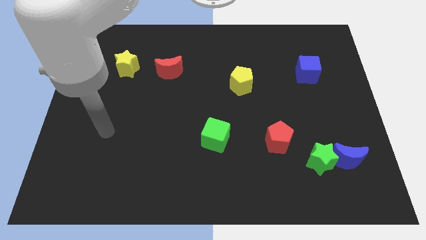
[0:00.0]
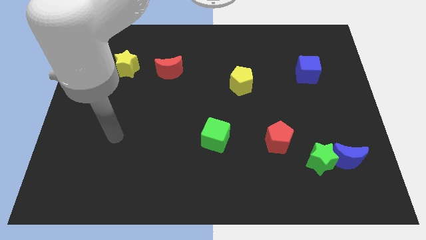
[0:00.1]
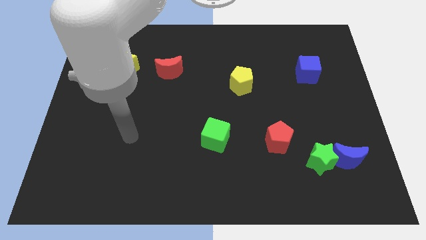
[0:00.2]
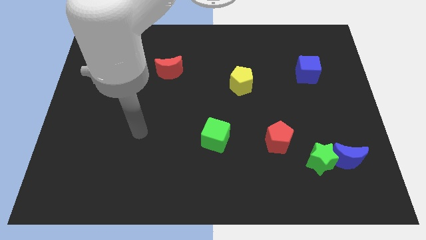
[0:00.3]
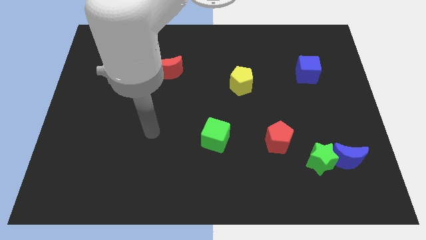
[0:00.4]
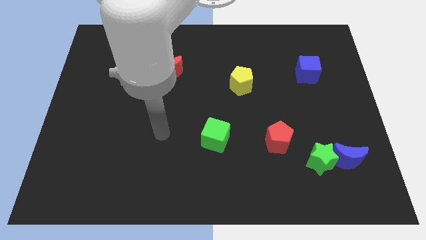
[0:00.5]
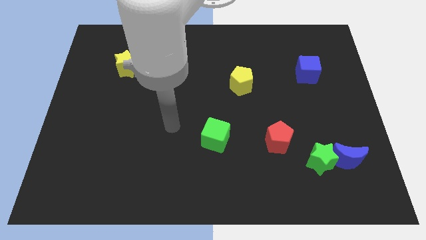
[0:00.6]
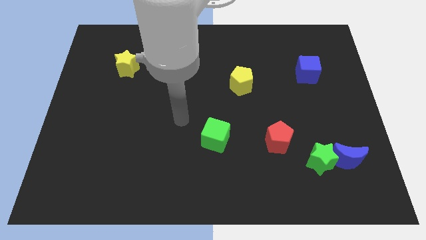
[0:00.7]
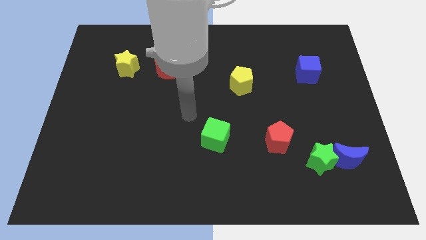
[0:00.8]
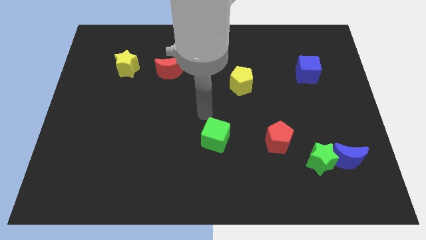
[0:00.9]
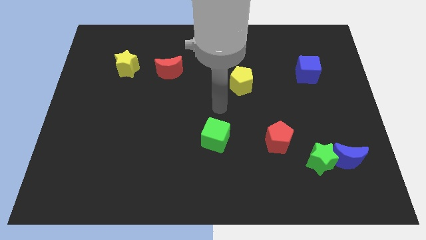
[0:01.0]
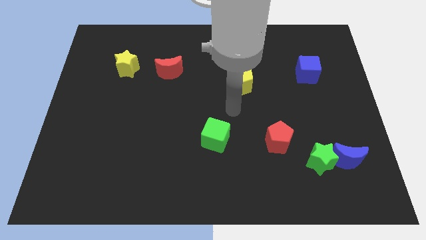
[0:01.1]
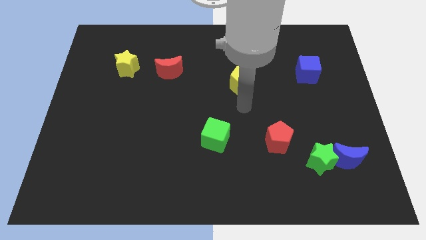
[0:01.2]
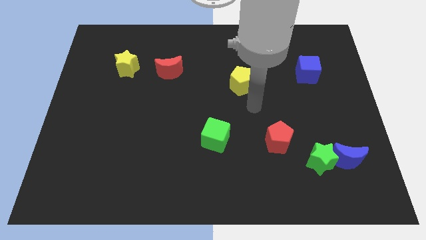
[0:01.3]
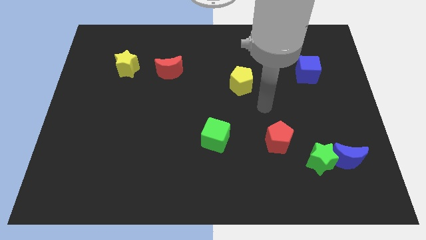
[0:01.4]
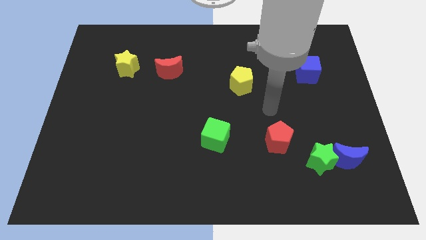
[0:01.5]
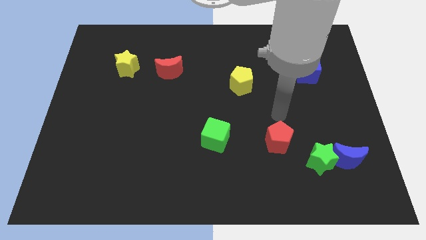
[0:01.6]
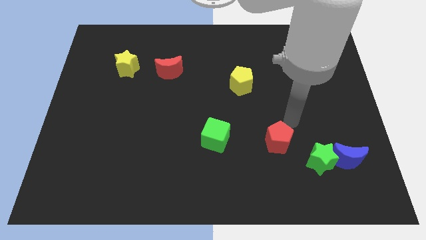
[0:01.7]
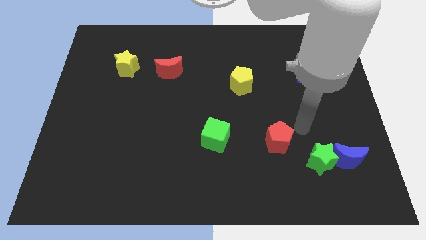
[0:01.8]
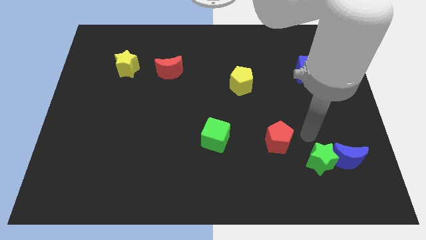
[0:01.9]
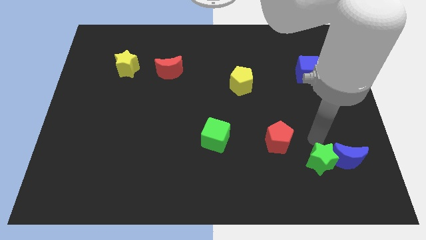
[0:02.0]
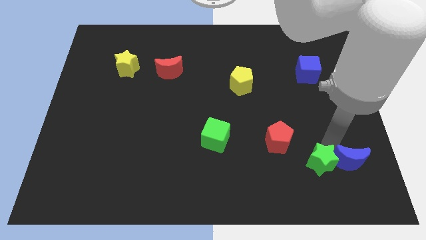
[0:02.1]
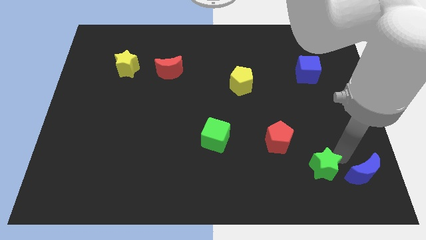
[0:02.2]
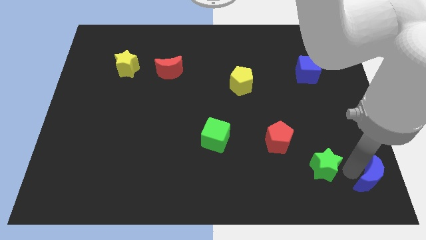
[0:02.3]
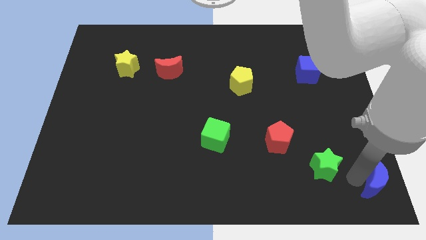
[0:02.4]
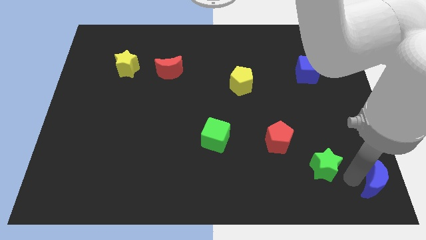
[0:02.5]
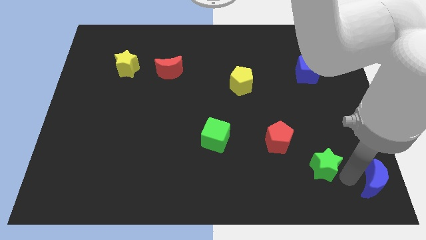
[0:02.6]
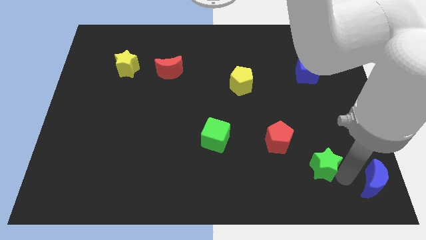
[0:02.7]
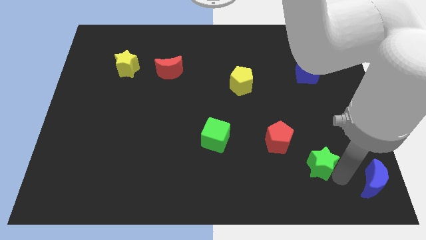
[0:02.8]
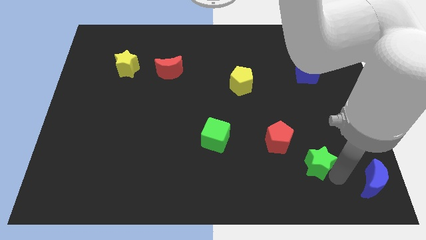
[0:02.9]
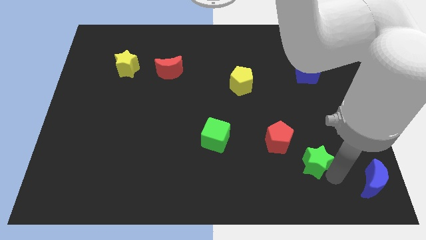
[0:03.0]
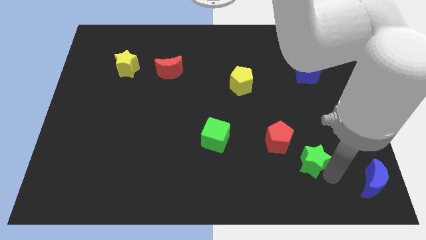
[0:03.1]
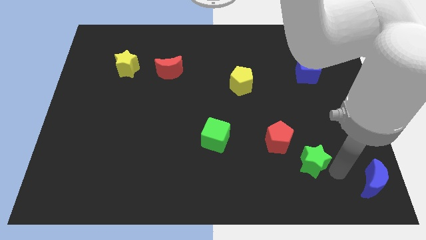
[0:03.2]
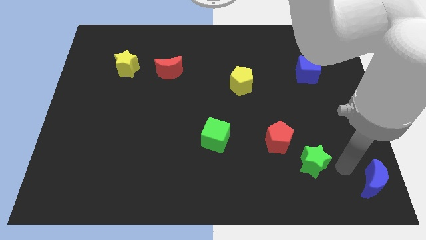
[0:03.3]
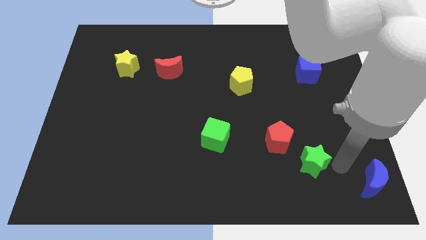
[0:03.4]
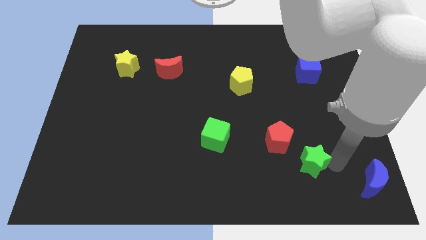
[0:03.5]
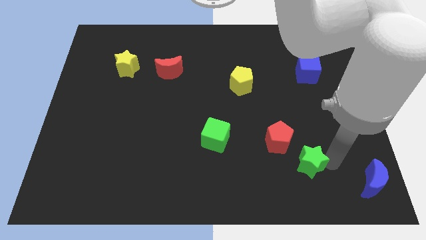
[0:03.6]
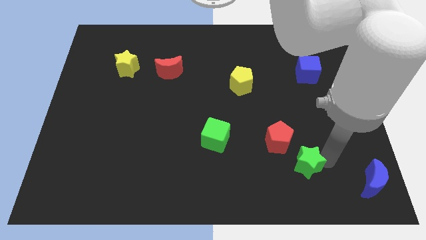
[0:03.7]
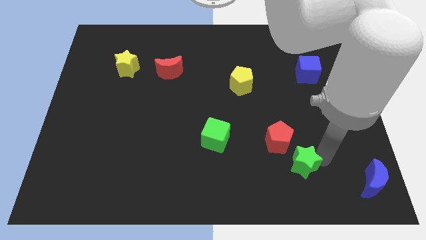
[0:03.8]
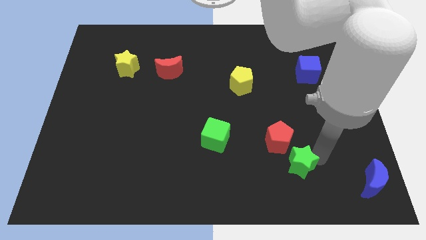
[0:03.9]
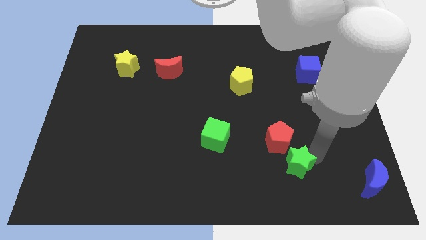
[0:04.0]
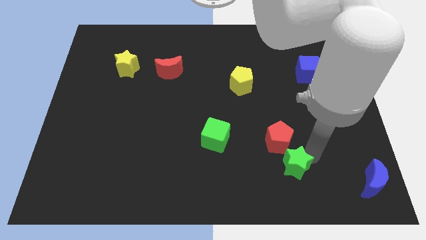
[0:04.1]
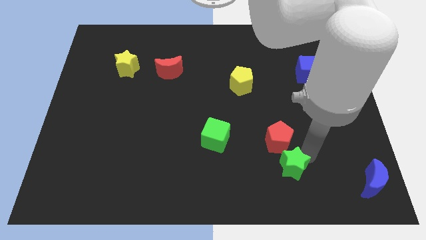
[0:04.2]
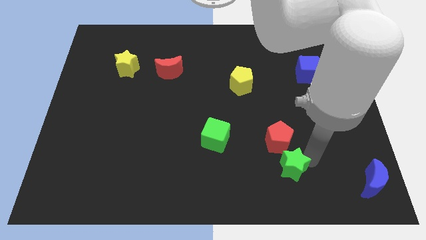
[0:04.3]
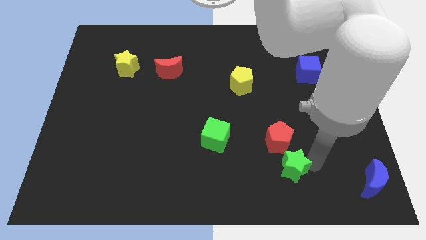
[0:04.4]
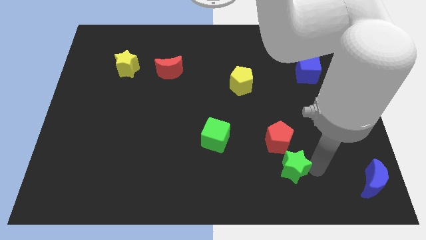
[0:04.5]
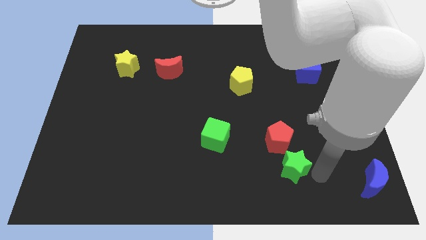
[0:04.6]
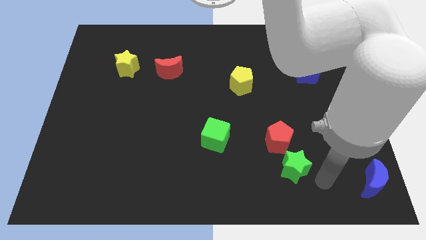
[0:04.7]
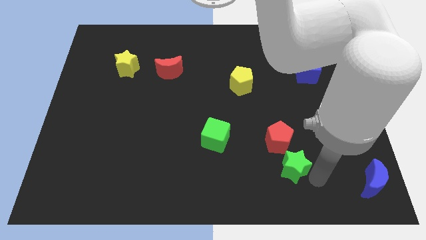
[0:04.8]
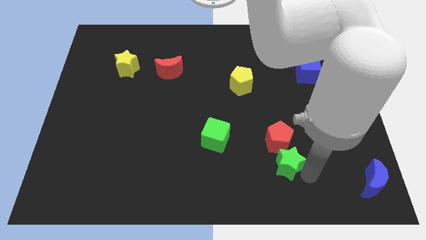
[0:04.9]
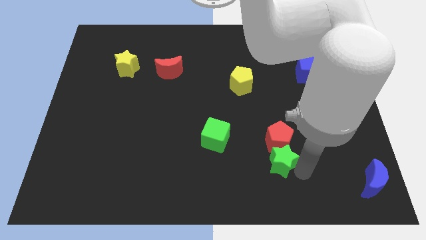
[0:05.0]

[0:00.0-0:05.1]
push the green star to the bottom left of the red pentagon

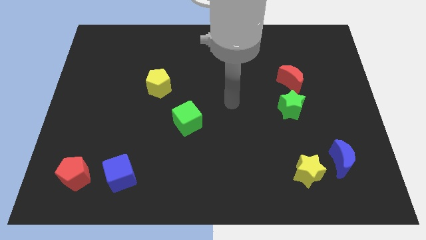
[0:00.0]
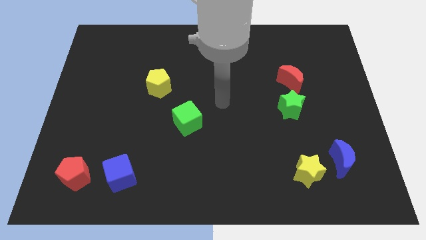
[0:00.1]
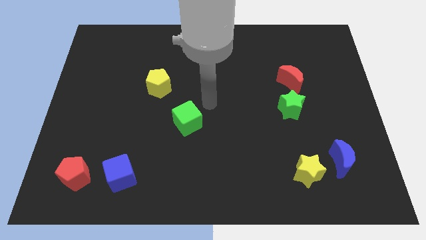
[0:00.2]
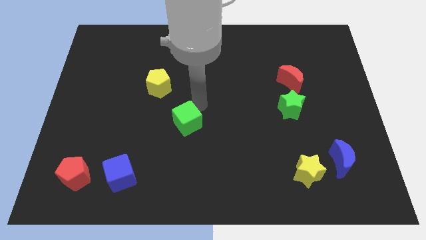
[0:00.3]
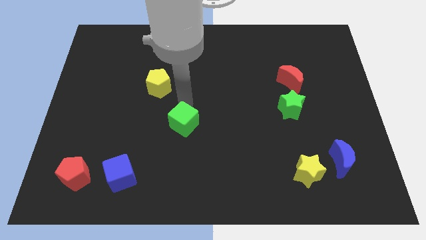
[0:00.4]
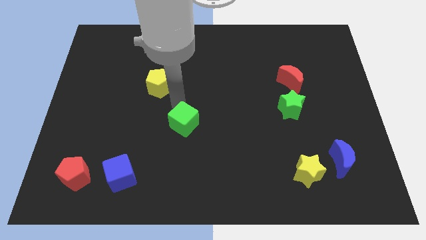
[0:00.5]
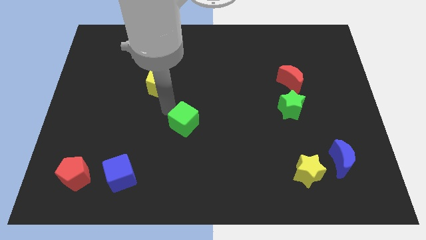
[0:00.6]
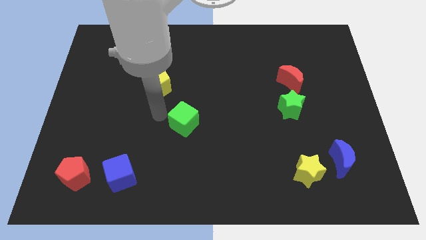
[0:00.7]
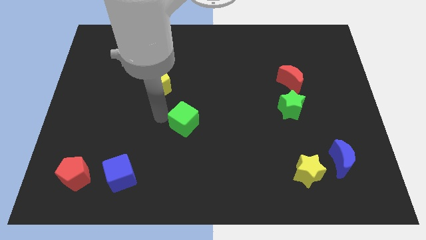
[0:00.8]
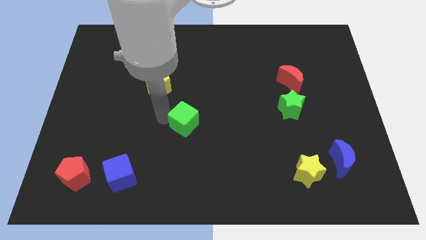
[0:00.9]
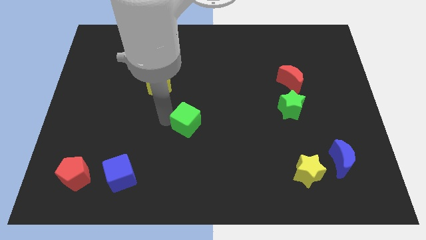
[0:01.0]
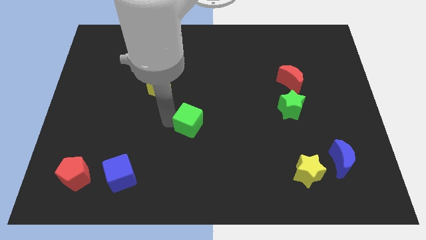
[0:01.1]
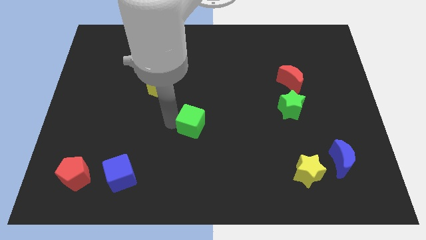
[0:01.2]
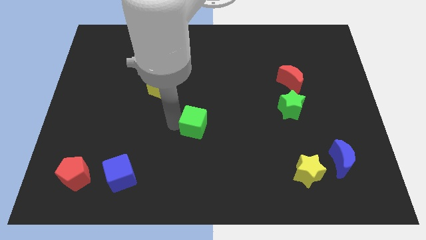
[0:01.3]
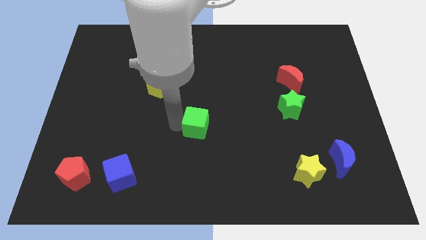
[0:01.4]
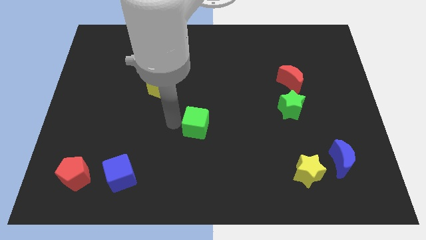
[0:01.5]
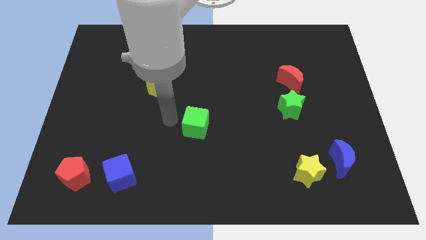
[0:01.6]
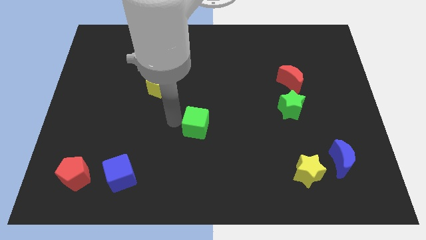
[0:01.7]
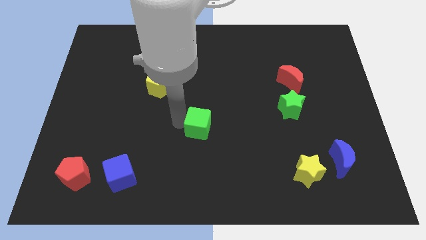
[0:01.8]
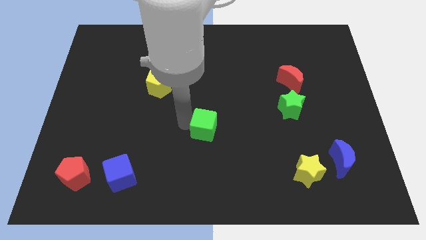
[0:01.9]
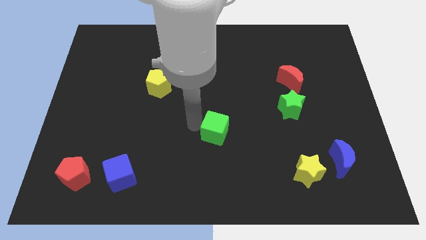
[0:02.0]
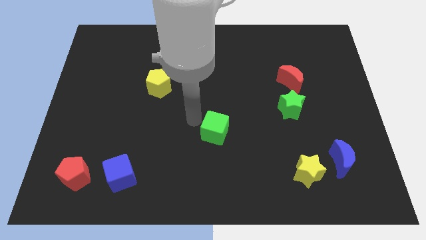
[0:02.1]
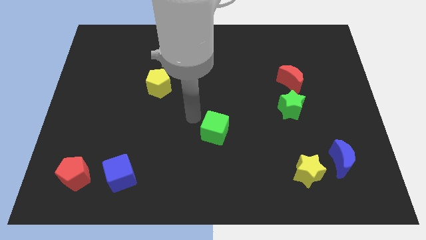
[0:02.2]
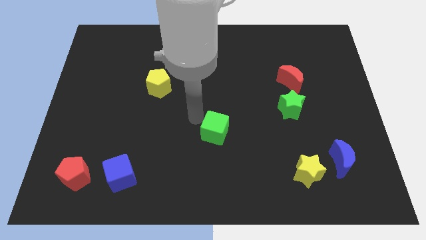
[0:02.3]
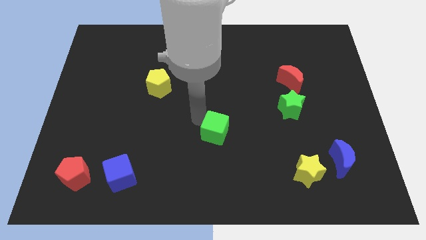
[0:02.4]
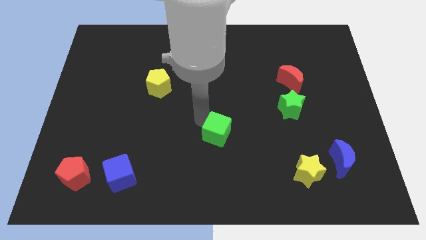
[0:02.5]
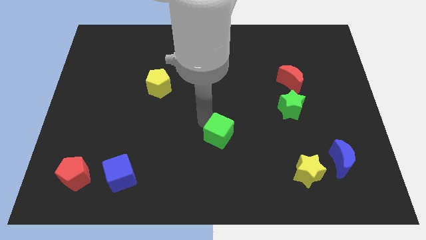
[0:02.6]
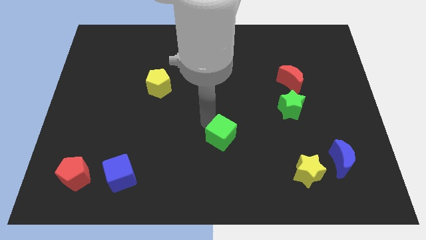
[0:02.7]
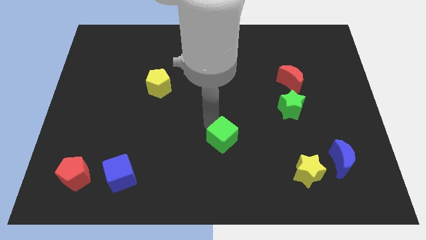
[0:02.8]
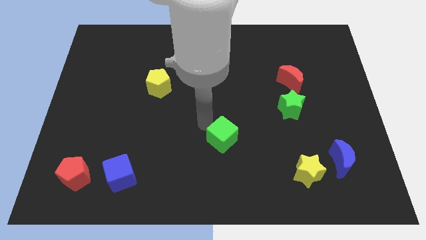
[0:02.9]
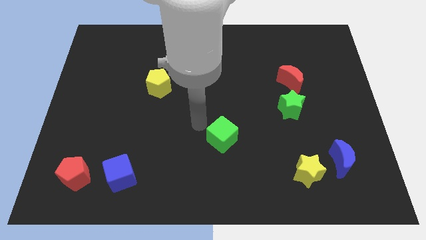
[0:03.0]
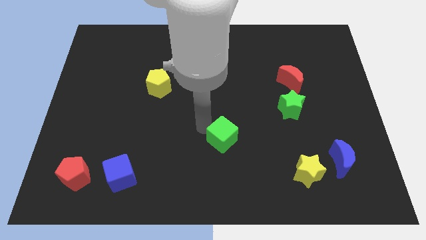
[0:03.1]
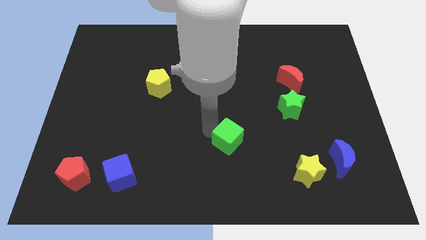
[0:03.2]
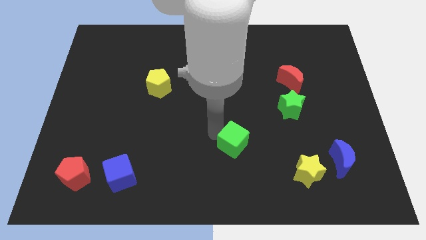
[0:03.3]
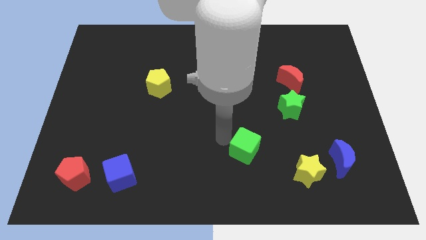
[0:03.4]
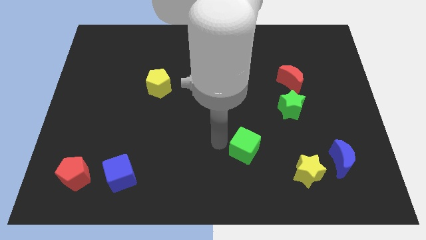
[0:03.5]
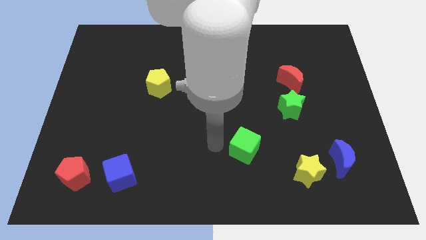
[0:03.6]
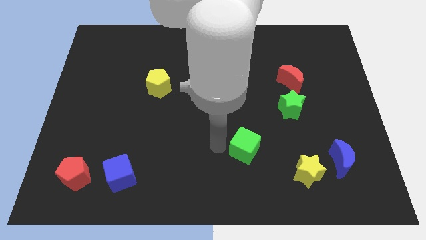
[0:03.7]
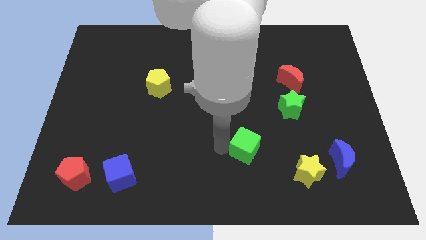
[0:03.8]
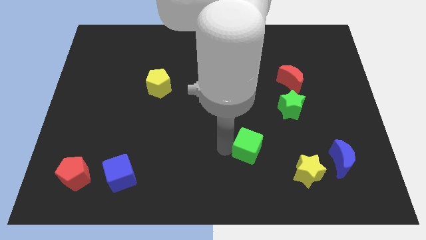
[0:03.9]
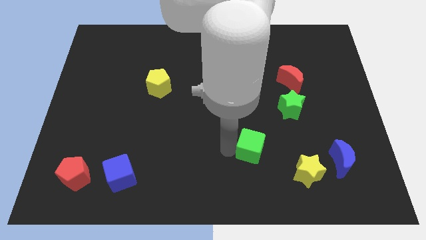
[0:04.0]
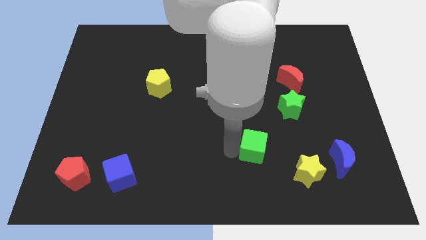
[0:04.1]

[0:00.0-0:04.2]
put the green cube to the top left side of the yellow star
